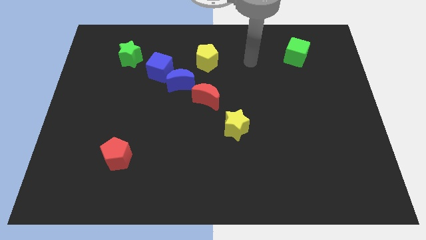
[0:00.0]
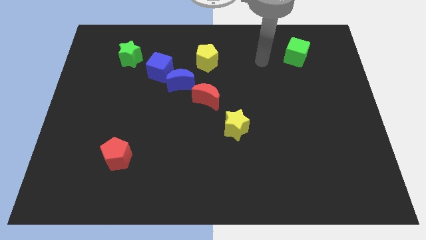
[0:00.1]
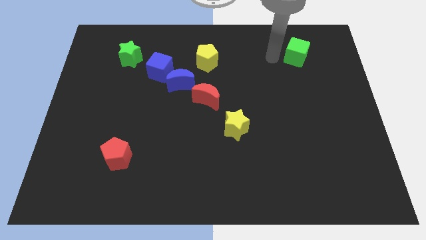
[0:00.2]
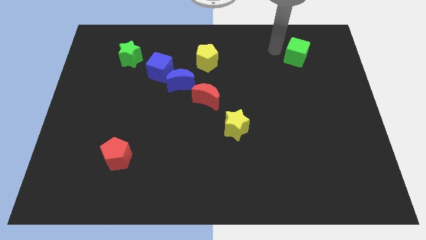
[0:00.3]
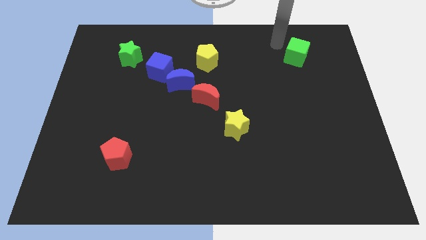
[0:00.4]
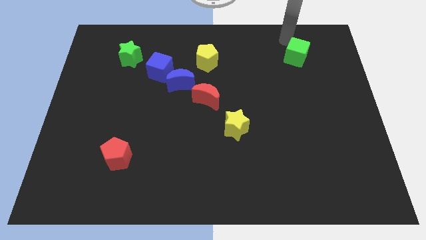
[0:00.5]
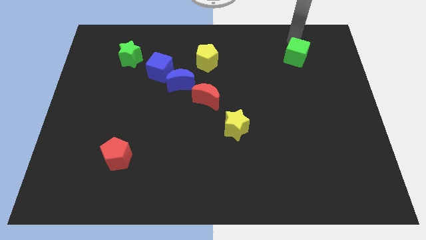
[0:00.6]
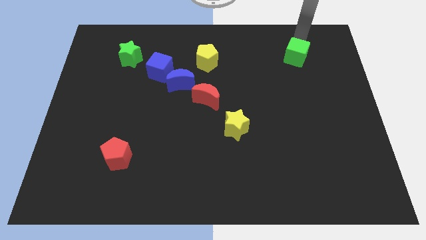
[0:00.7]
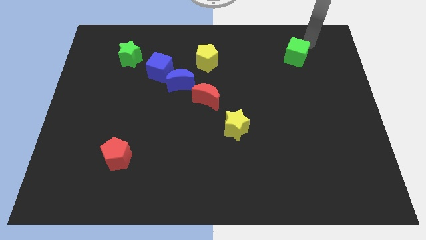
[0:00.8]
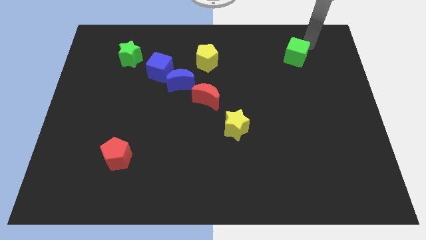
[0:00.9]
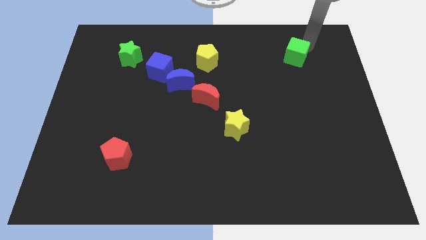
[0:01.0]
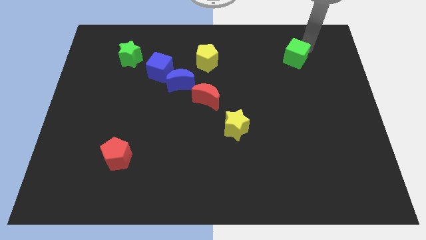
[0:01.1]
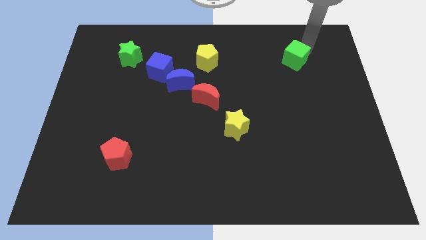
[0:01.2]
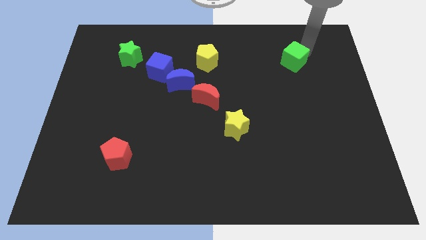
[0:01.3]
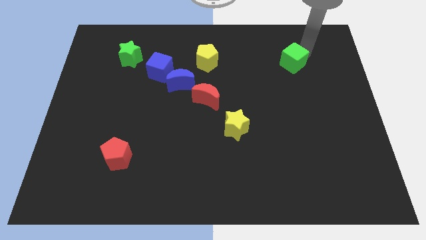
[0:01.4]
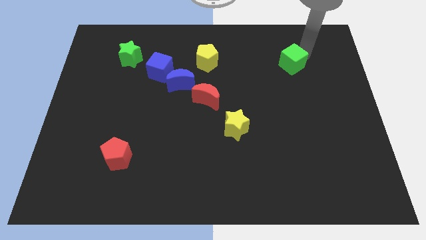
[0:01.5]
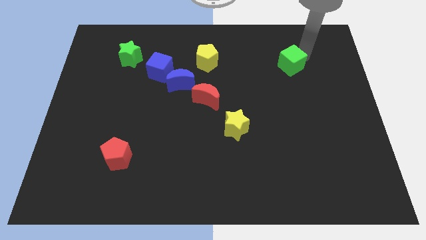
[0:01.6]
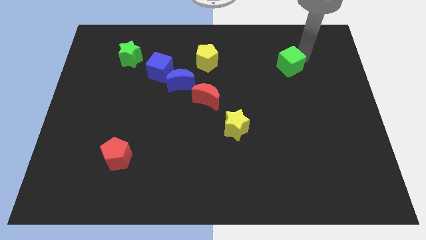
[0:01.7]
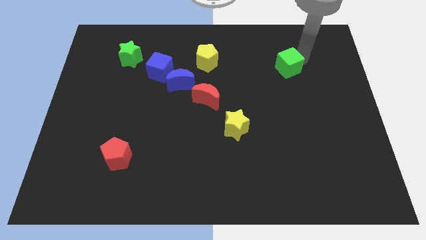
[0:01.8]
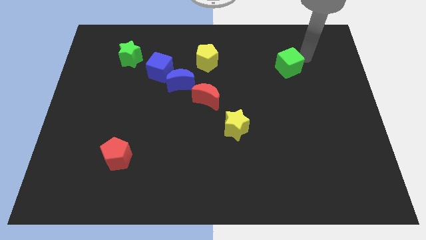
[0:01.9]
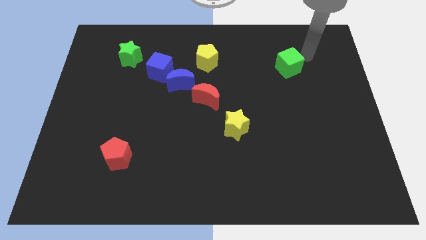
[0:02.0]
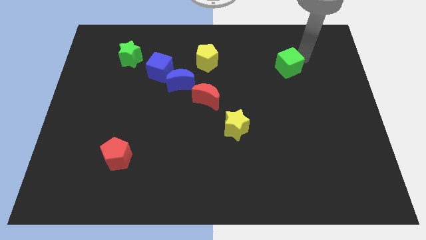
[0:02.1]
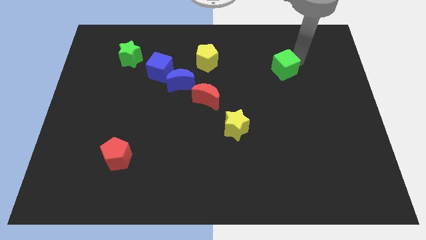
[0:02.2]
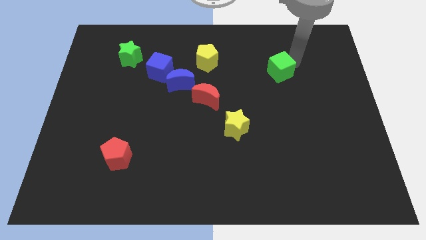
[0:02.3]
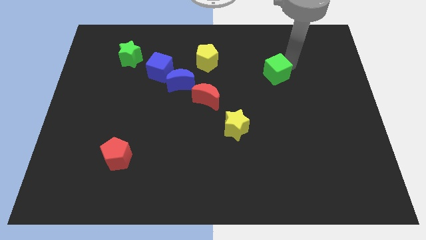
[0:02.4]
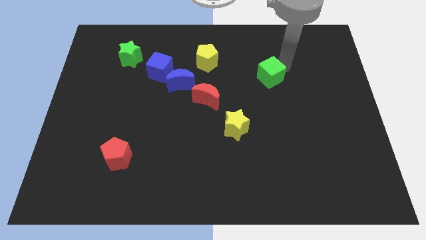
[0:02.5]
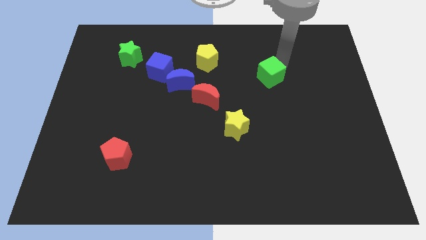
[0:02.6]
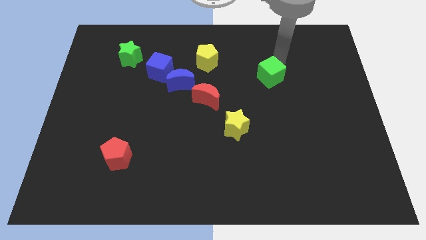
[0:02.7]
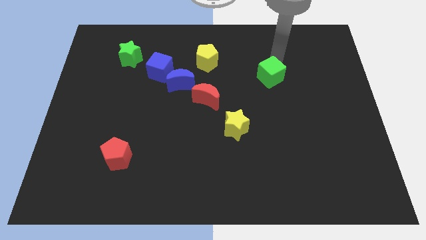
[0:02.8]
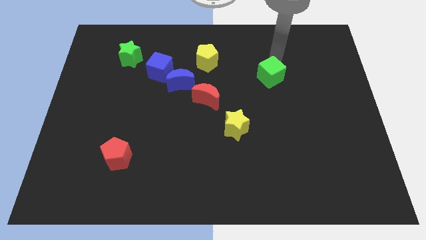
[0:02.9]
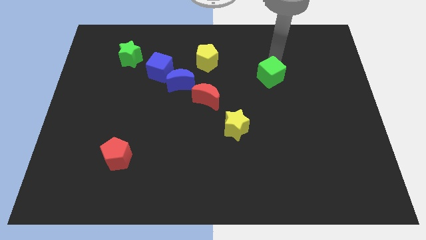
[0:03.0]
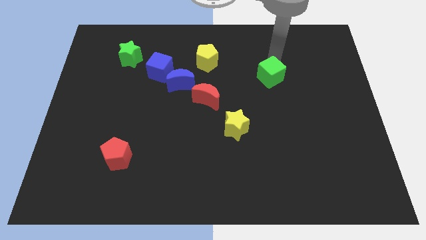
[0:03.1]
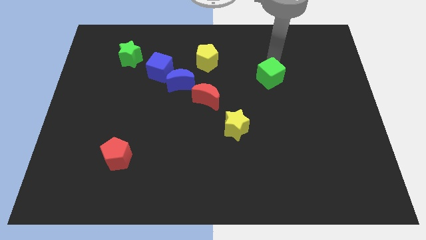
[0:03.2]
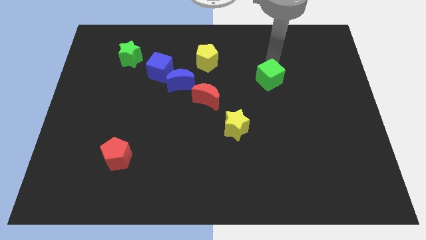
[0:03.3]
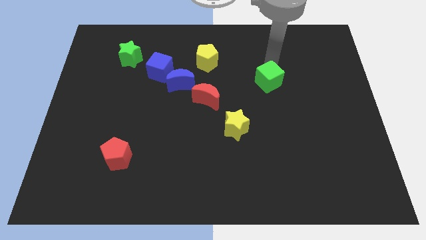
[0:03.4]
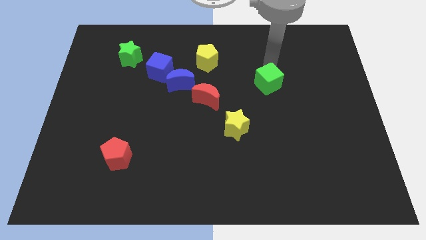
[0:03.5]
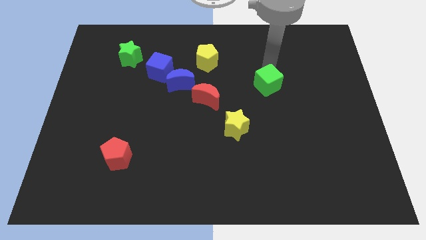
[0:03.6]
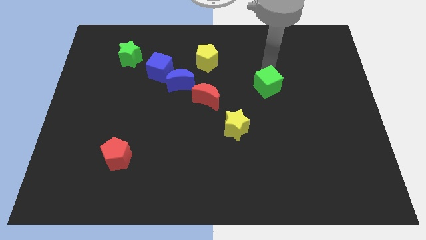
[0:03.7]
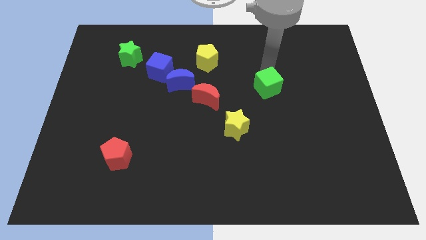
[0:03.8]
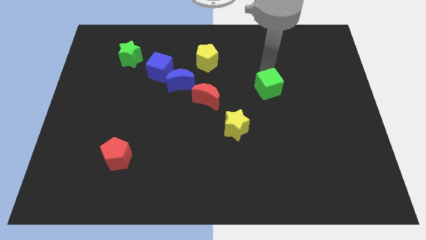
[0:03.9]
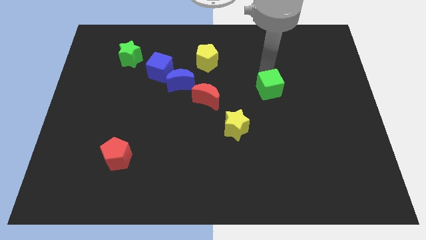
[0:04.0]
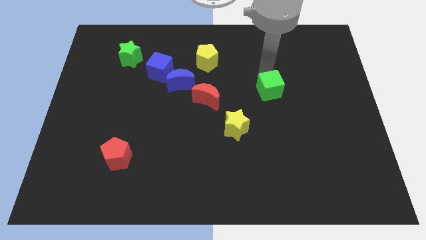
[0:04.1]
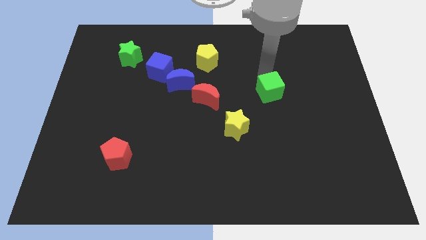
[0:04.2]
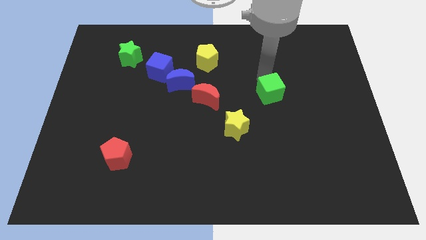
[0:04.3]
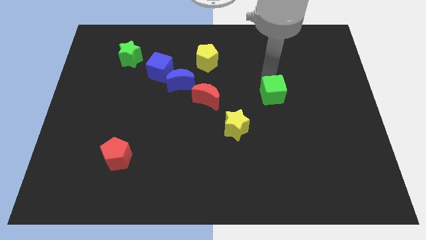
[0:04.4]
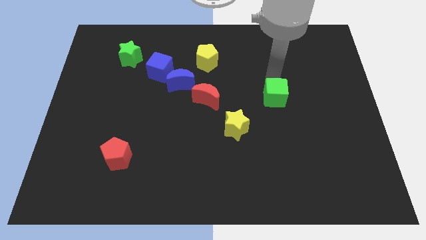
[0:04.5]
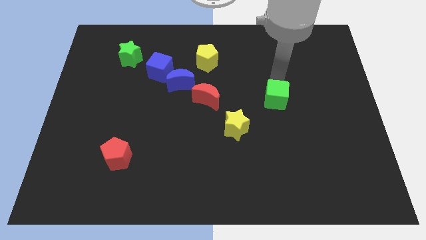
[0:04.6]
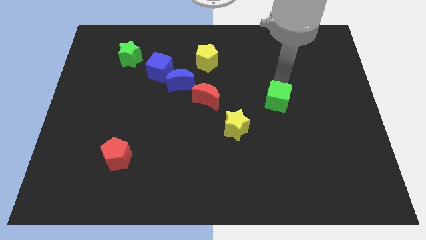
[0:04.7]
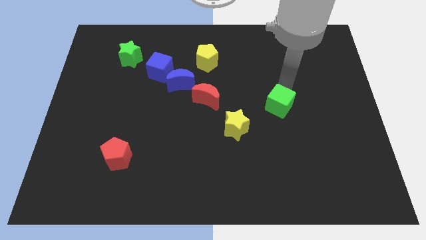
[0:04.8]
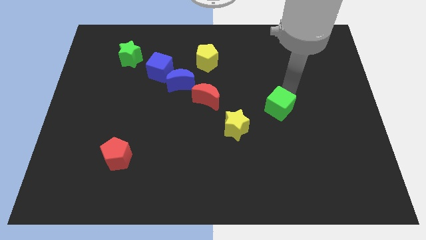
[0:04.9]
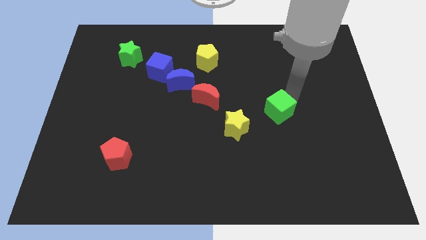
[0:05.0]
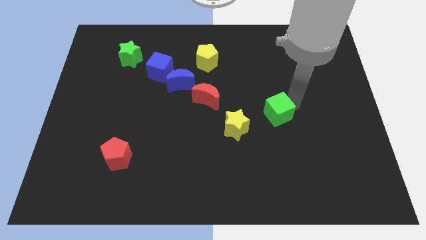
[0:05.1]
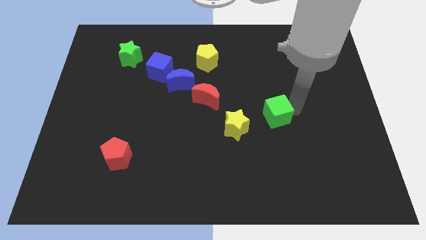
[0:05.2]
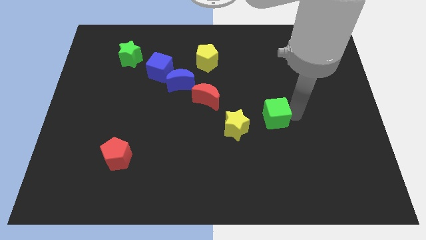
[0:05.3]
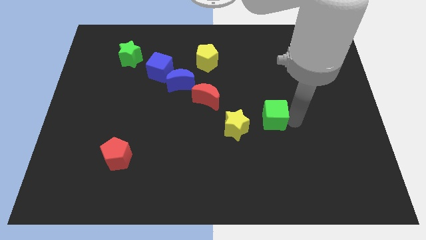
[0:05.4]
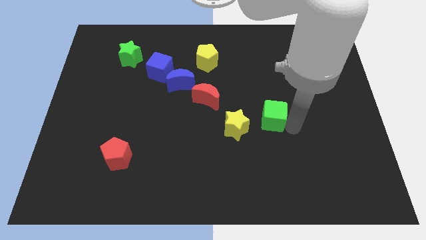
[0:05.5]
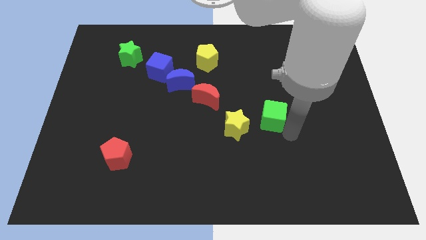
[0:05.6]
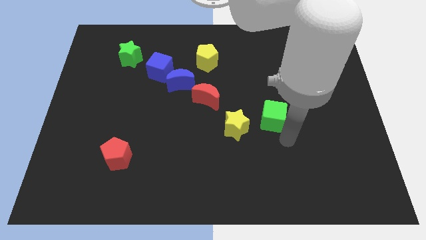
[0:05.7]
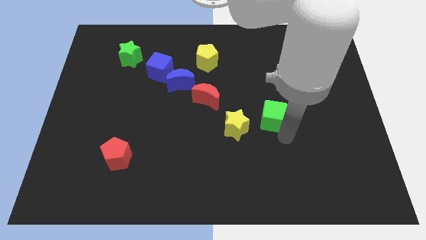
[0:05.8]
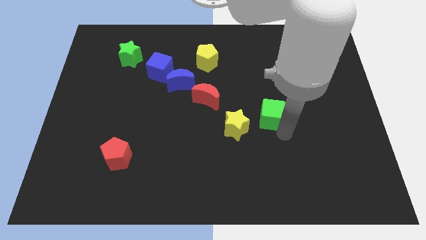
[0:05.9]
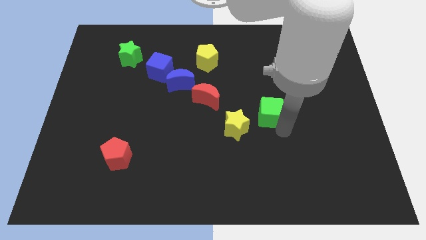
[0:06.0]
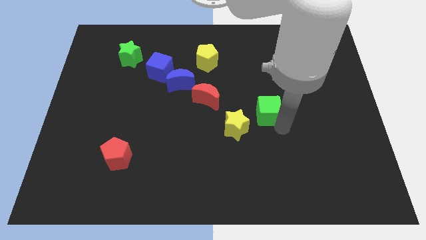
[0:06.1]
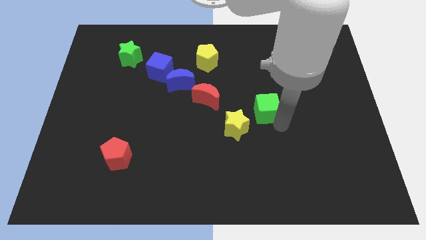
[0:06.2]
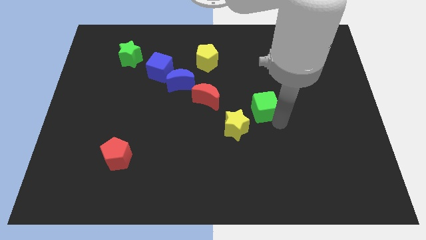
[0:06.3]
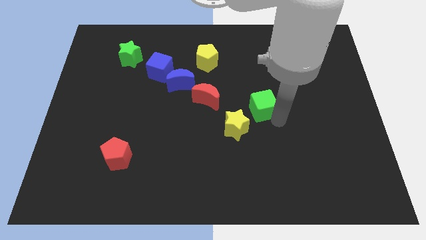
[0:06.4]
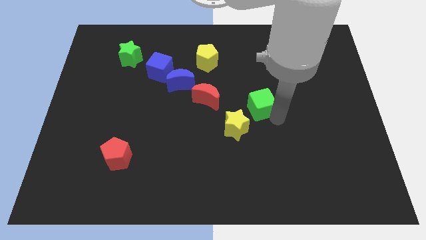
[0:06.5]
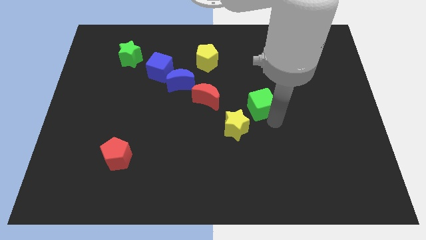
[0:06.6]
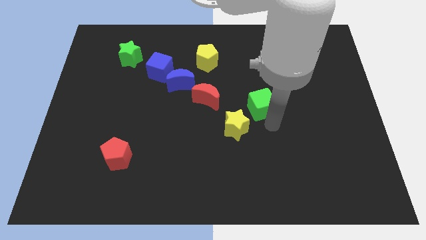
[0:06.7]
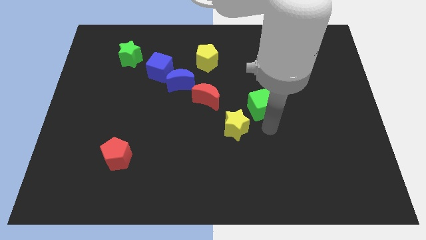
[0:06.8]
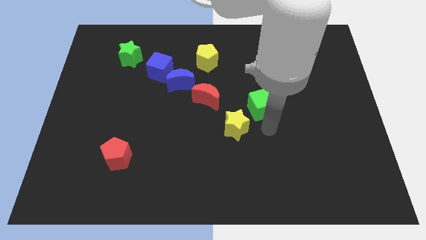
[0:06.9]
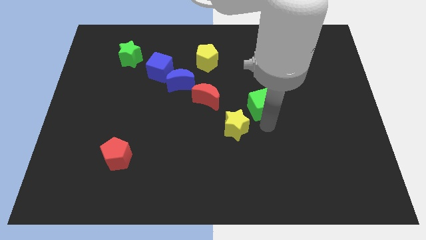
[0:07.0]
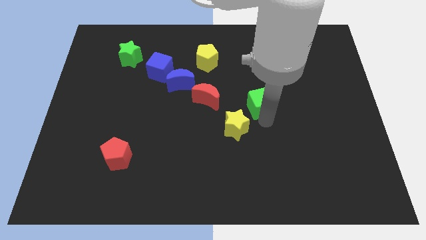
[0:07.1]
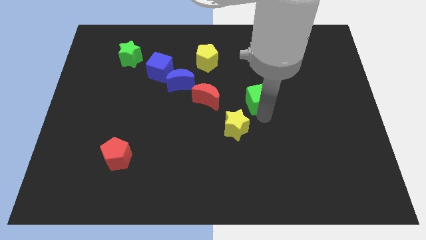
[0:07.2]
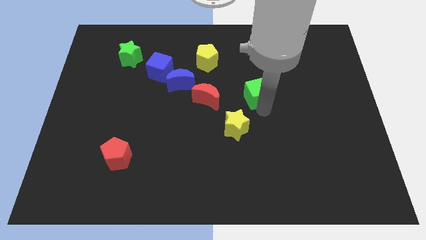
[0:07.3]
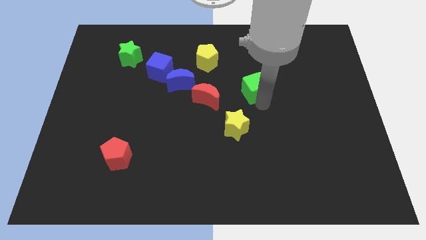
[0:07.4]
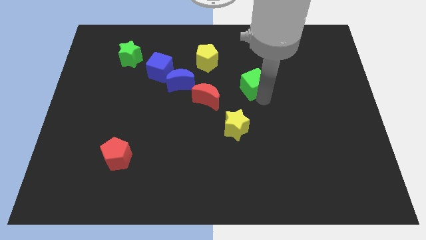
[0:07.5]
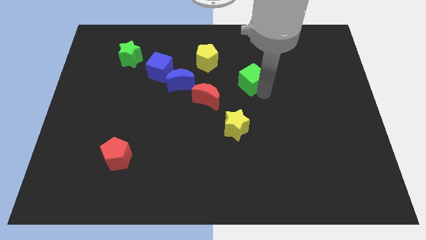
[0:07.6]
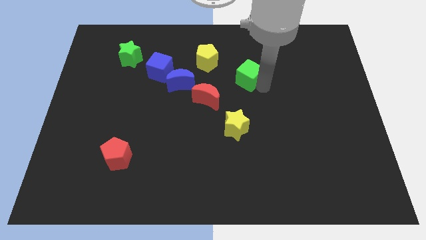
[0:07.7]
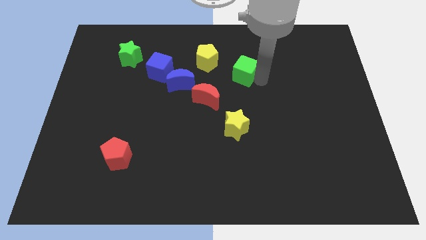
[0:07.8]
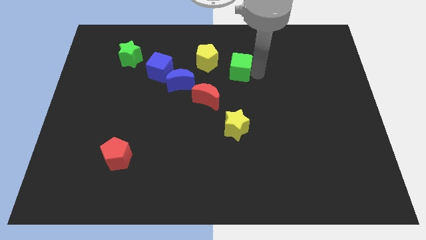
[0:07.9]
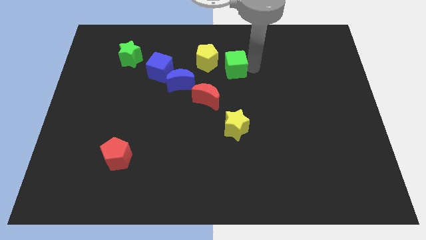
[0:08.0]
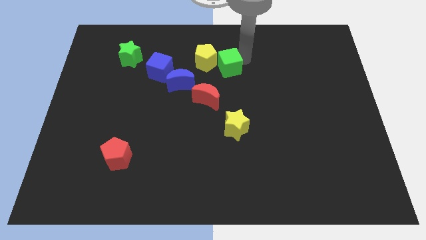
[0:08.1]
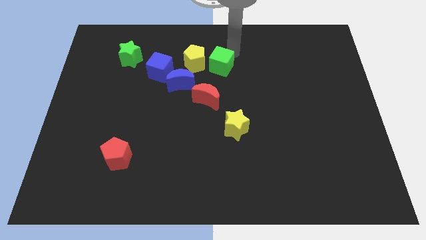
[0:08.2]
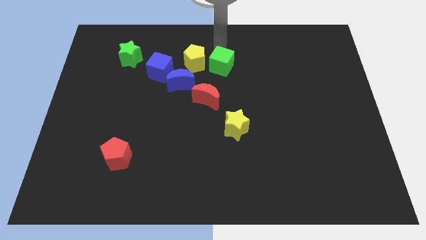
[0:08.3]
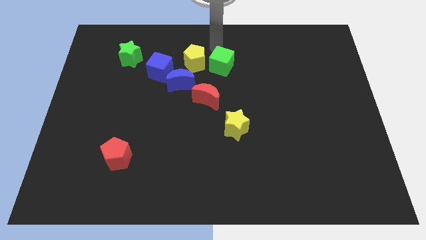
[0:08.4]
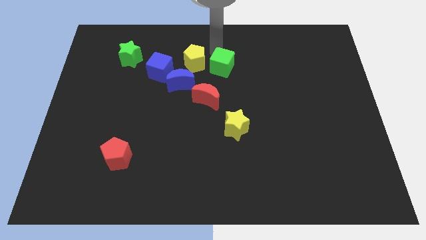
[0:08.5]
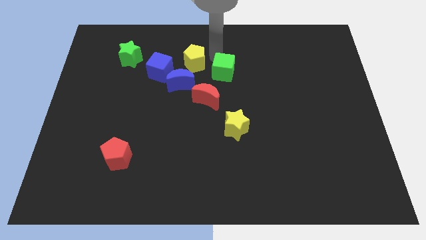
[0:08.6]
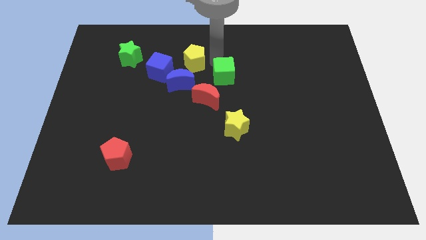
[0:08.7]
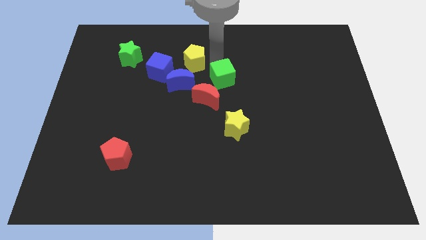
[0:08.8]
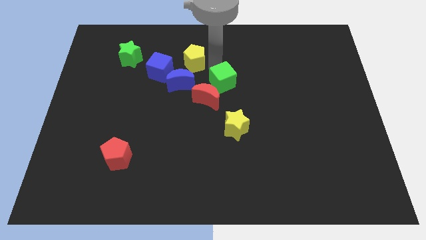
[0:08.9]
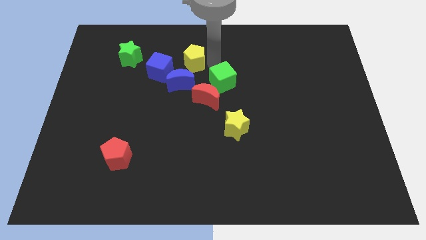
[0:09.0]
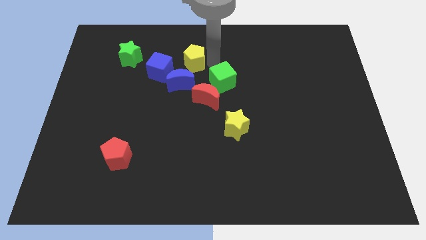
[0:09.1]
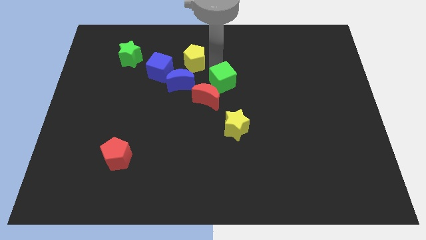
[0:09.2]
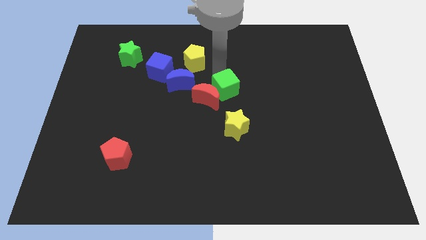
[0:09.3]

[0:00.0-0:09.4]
slide the green cube down and then left
